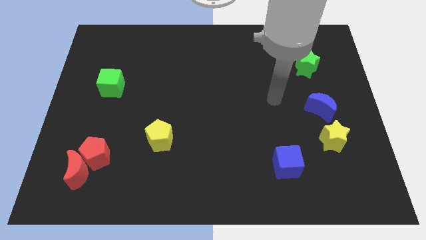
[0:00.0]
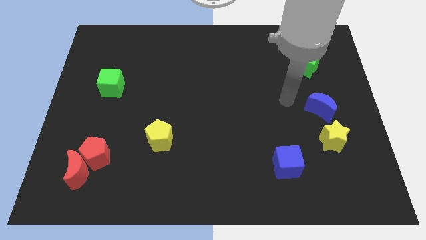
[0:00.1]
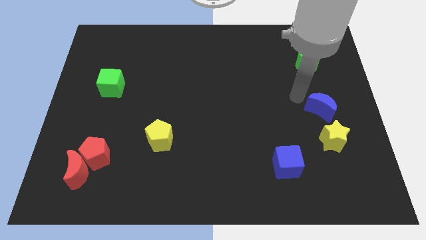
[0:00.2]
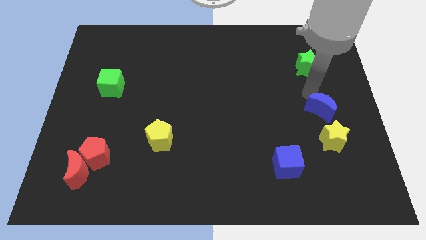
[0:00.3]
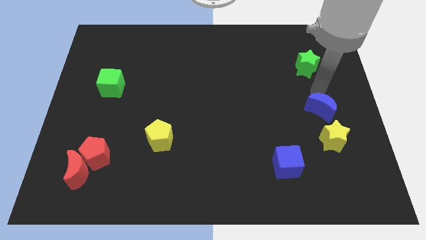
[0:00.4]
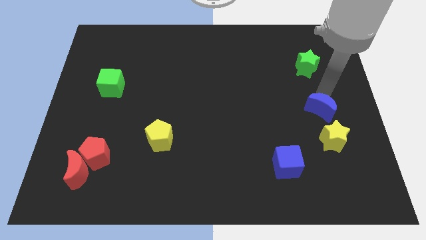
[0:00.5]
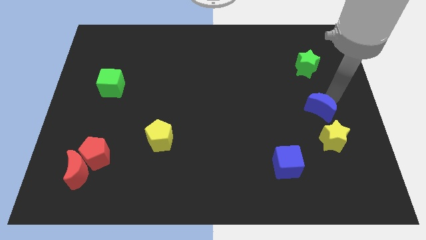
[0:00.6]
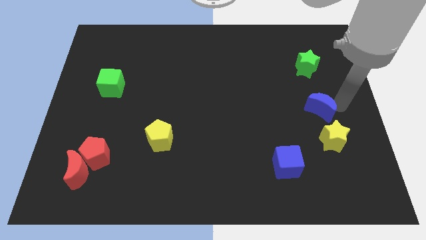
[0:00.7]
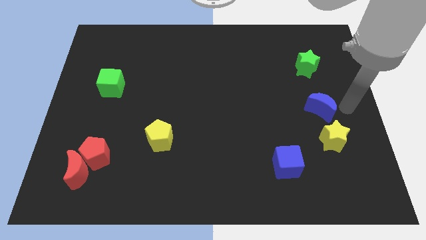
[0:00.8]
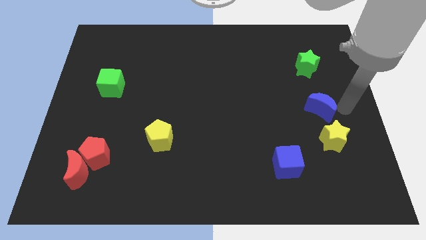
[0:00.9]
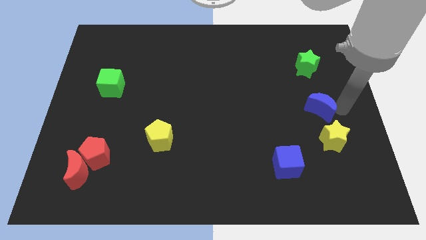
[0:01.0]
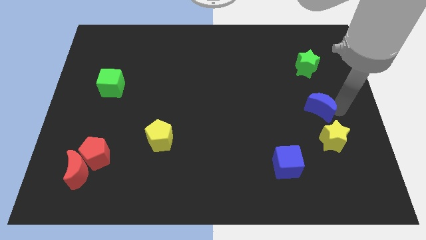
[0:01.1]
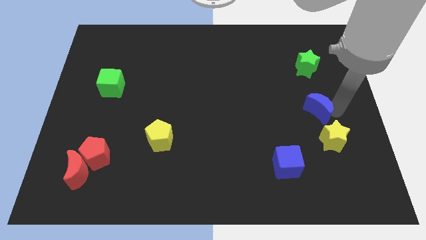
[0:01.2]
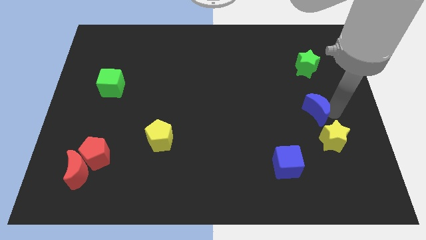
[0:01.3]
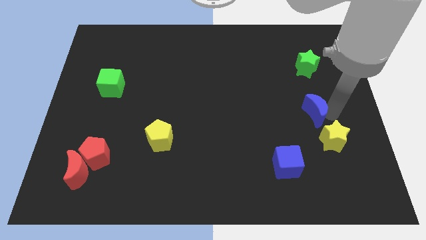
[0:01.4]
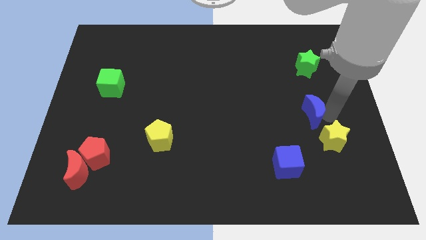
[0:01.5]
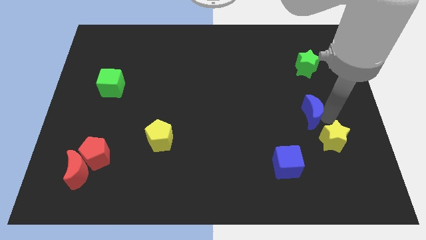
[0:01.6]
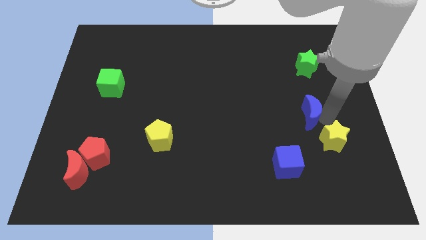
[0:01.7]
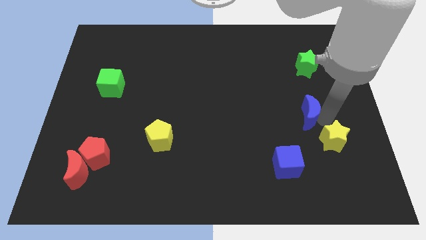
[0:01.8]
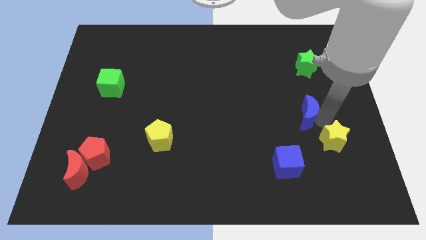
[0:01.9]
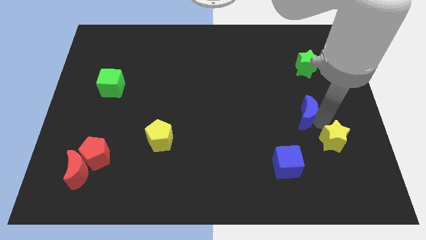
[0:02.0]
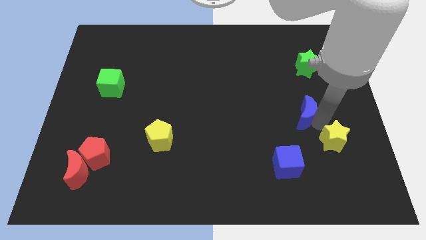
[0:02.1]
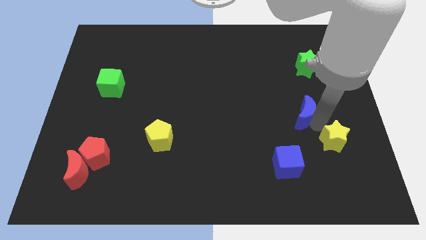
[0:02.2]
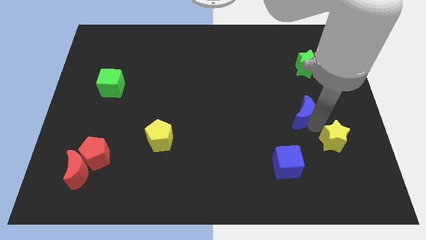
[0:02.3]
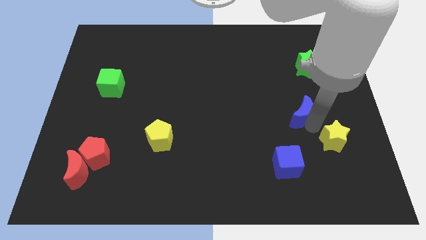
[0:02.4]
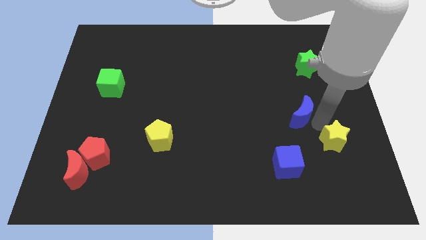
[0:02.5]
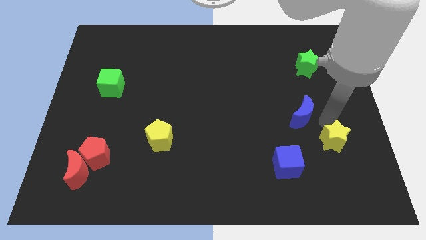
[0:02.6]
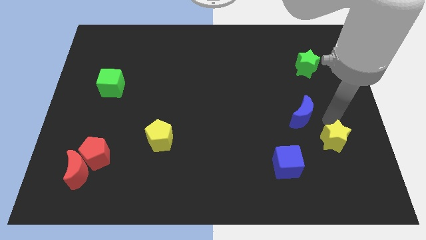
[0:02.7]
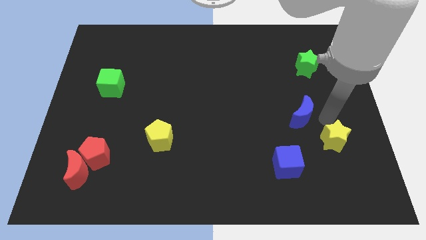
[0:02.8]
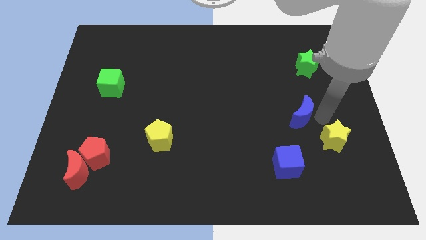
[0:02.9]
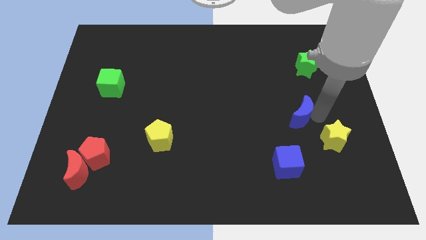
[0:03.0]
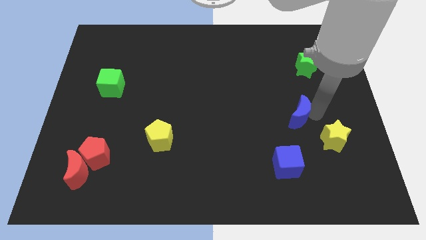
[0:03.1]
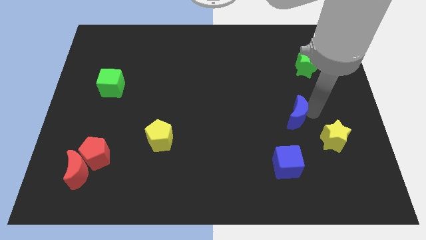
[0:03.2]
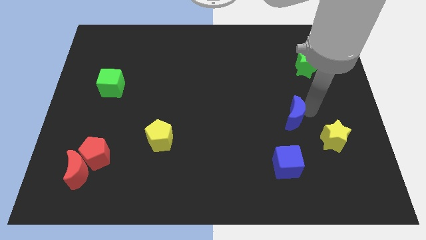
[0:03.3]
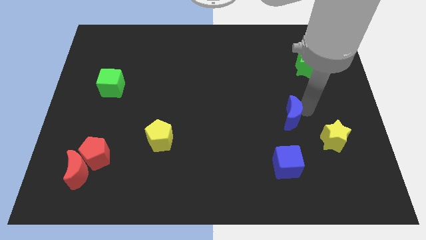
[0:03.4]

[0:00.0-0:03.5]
move the blue moon left somewhat

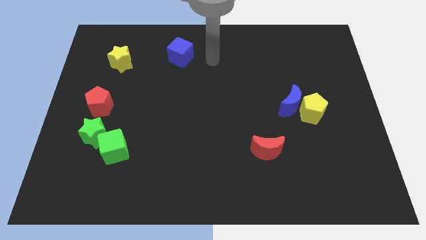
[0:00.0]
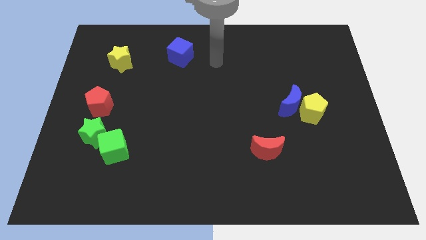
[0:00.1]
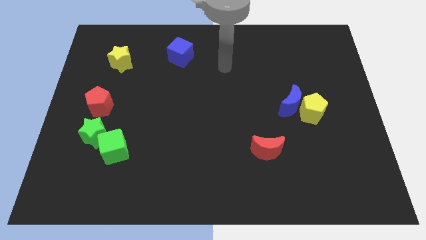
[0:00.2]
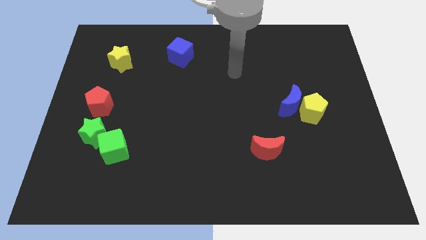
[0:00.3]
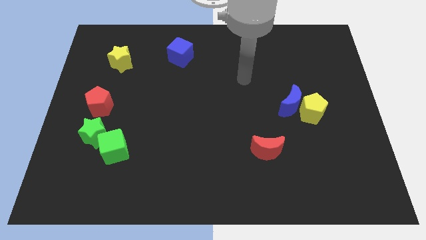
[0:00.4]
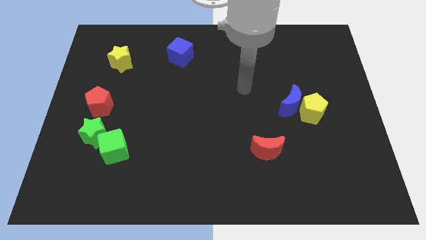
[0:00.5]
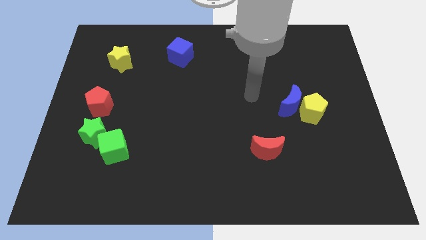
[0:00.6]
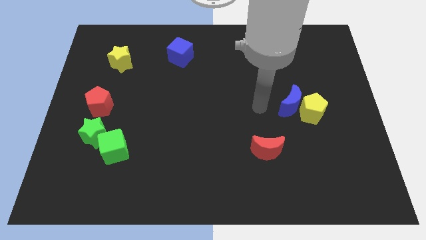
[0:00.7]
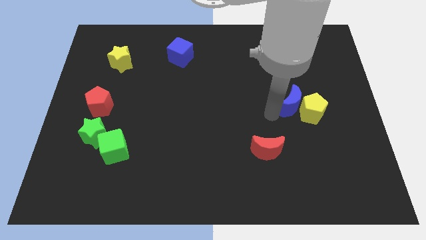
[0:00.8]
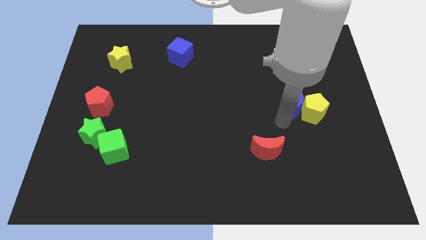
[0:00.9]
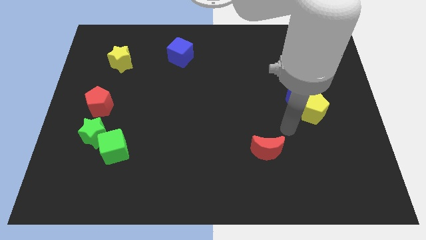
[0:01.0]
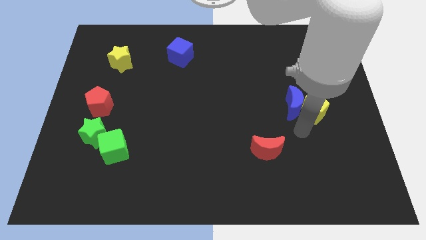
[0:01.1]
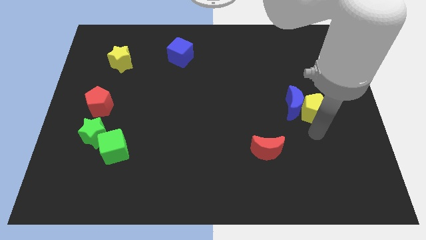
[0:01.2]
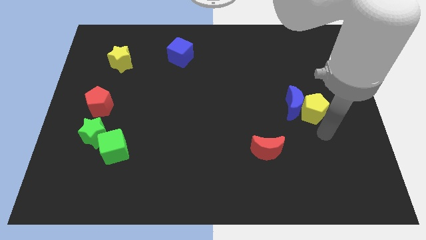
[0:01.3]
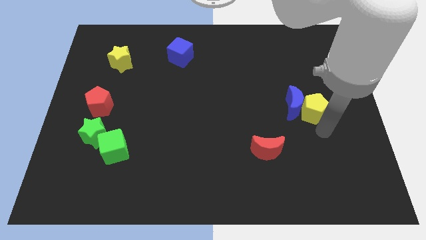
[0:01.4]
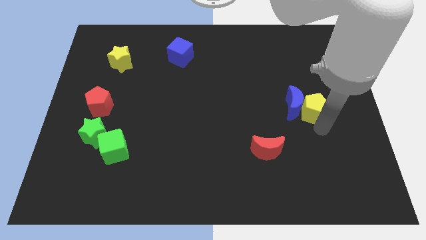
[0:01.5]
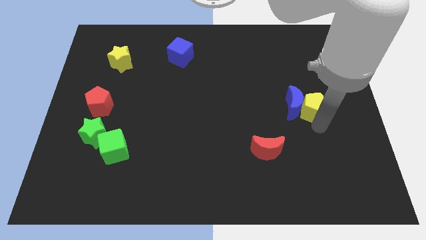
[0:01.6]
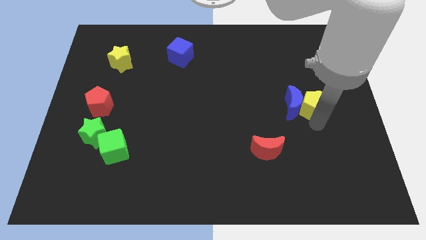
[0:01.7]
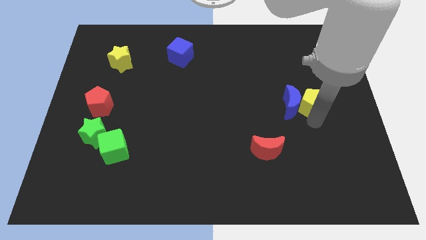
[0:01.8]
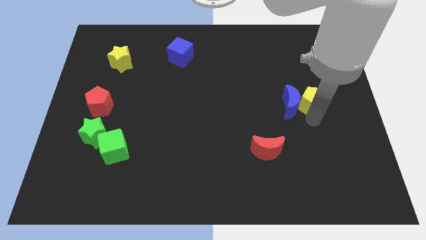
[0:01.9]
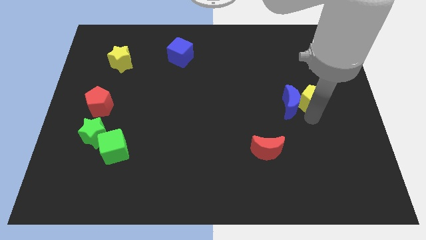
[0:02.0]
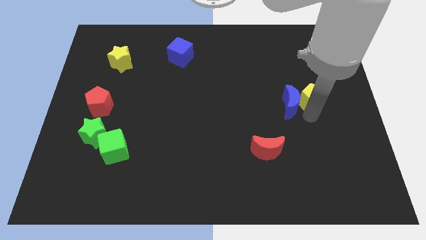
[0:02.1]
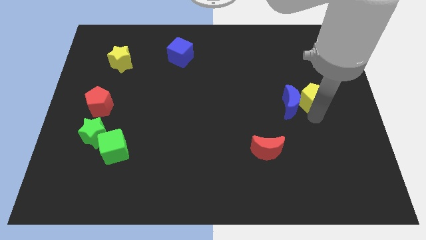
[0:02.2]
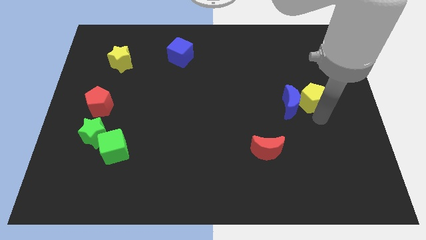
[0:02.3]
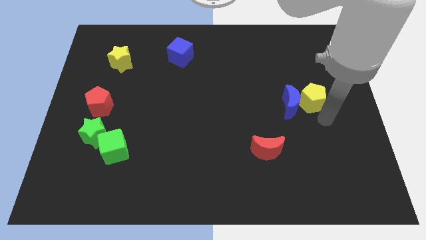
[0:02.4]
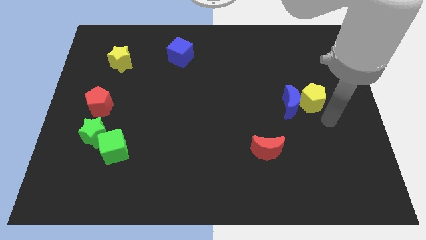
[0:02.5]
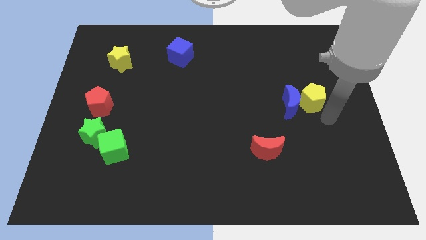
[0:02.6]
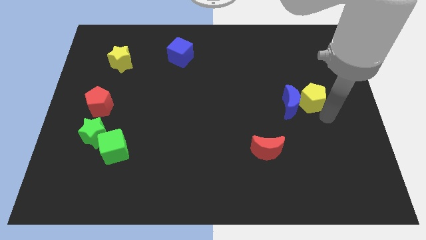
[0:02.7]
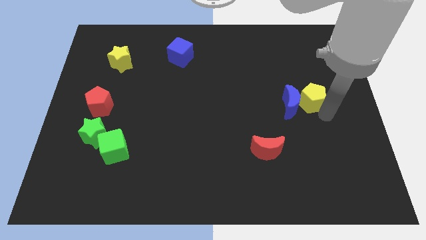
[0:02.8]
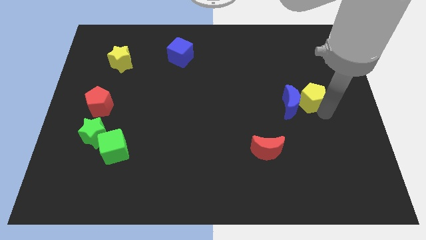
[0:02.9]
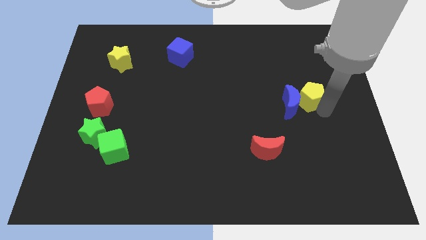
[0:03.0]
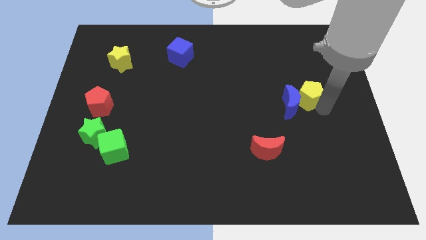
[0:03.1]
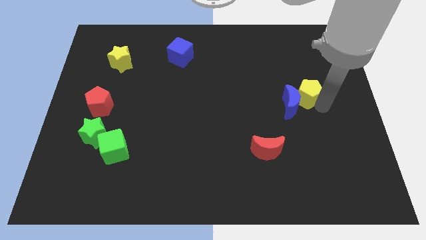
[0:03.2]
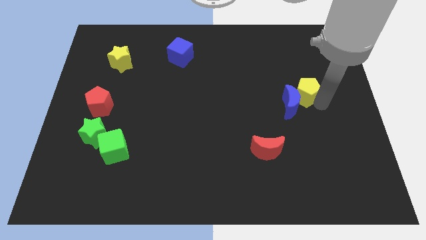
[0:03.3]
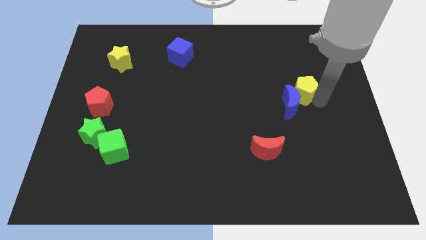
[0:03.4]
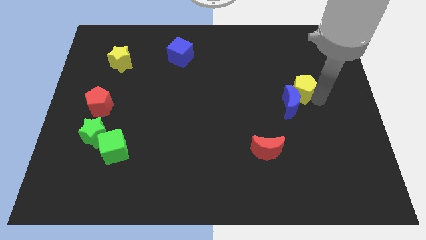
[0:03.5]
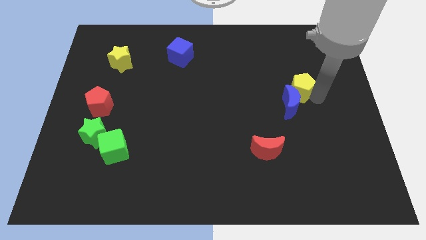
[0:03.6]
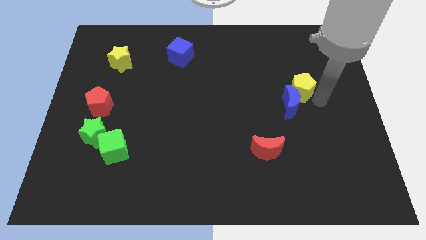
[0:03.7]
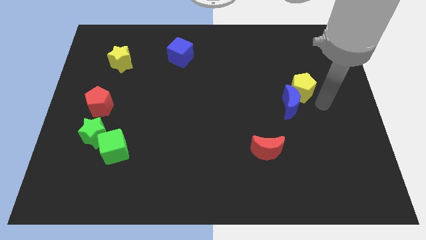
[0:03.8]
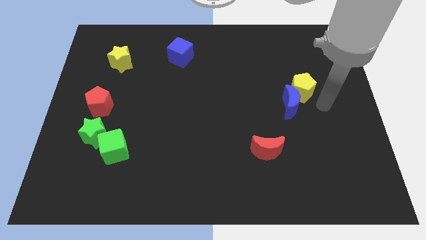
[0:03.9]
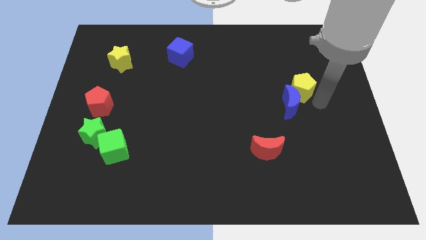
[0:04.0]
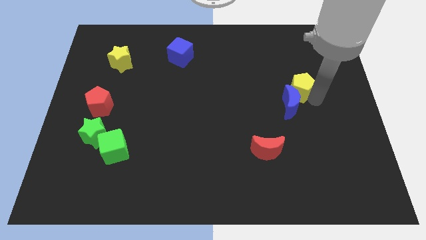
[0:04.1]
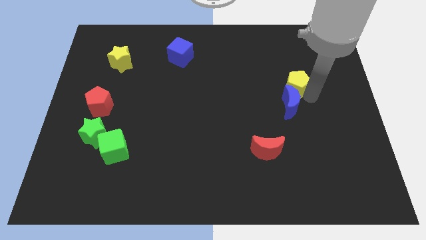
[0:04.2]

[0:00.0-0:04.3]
push the yellow pentagon upwards and to the left diagonally a bit
